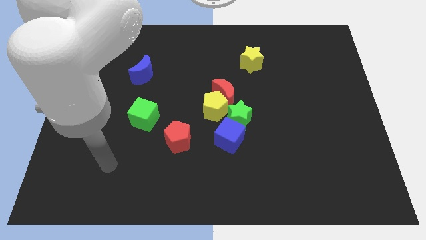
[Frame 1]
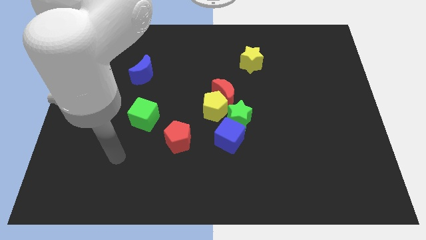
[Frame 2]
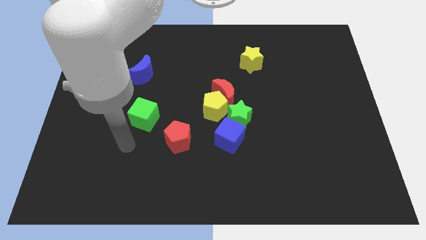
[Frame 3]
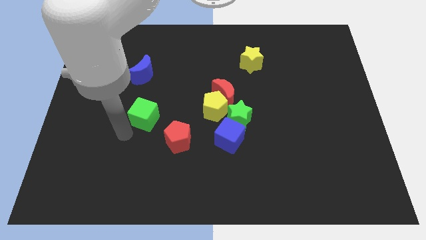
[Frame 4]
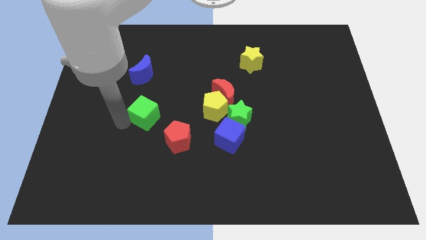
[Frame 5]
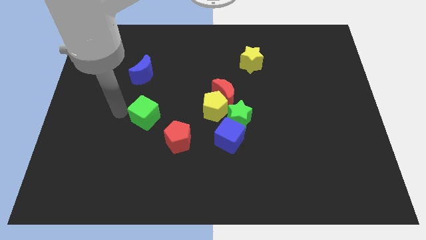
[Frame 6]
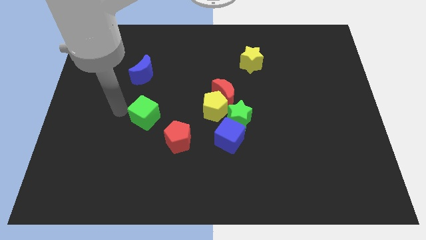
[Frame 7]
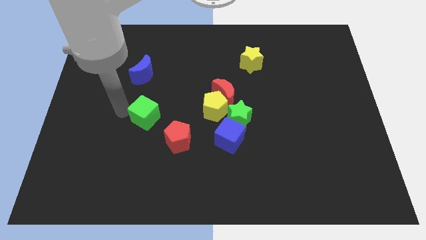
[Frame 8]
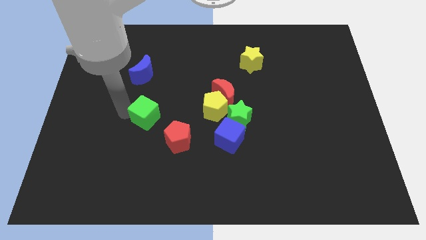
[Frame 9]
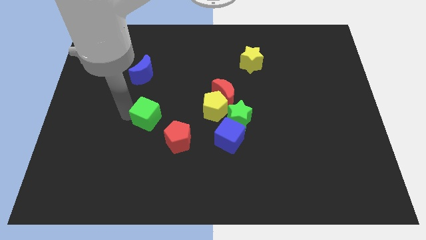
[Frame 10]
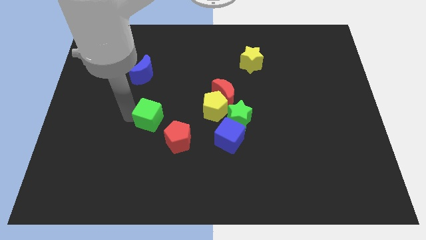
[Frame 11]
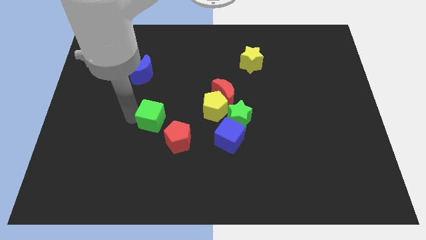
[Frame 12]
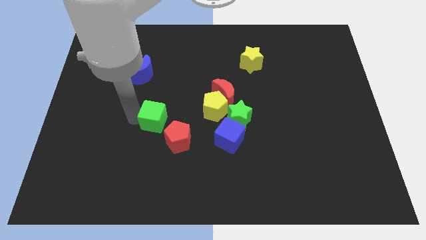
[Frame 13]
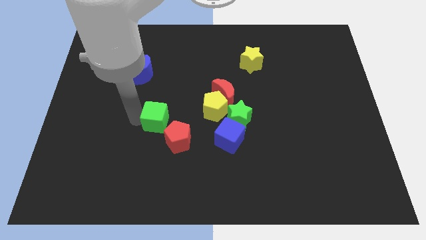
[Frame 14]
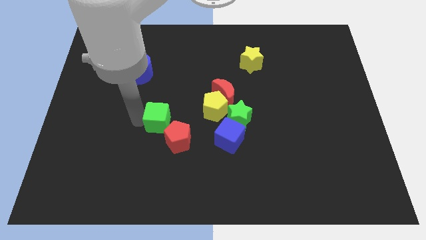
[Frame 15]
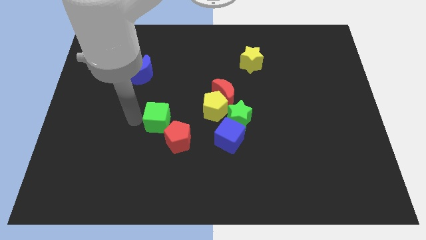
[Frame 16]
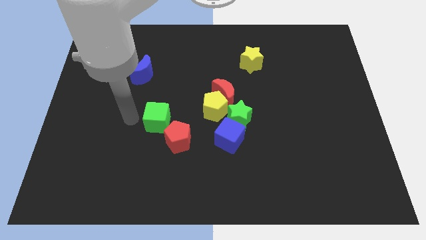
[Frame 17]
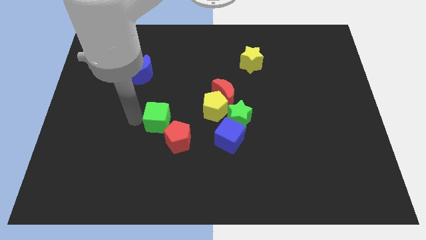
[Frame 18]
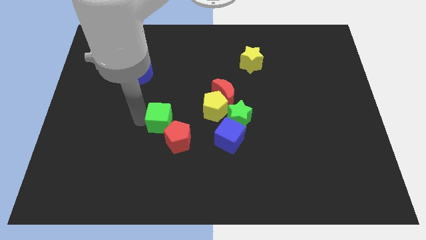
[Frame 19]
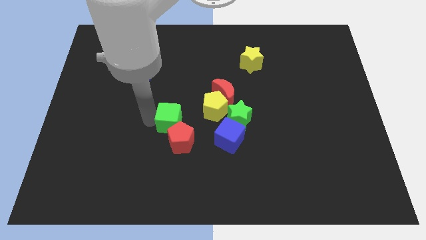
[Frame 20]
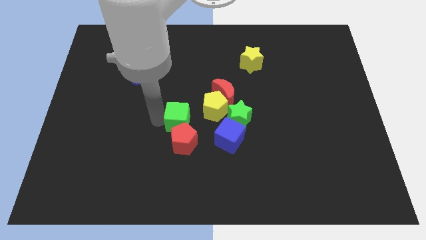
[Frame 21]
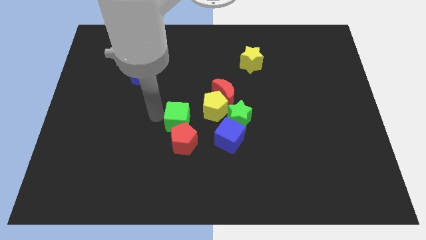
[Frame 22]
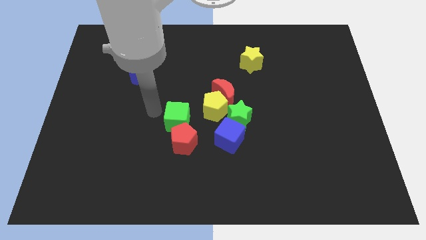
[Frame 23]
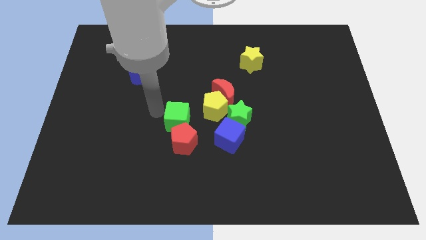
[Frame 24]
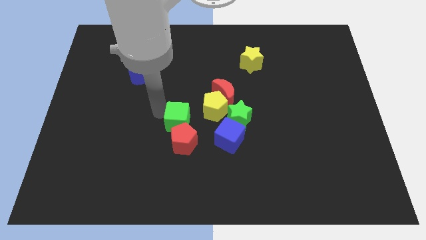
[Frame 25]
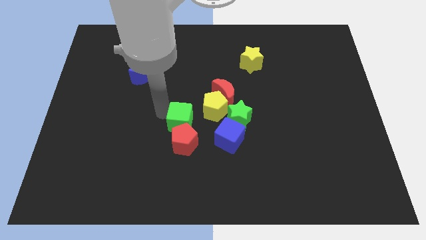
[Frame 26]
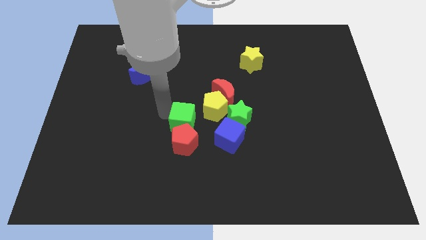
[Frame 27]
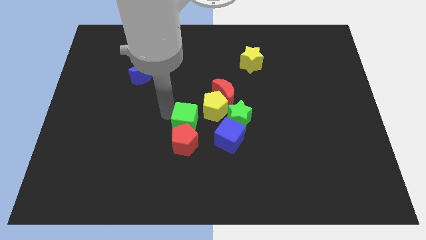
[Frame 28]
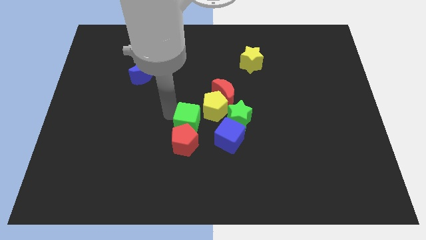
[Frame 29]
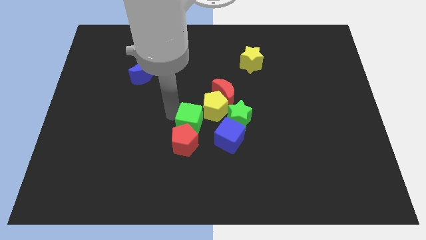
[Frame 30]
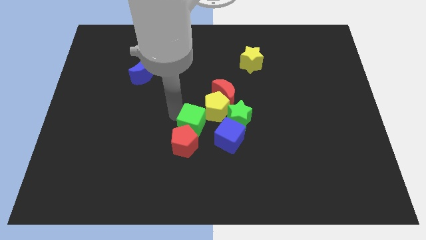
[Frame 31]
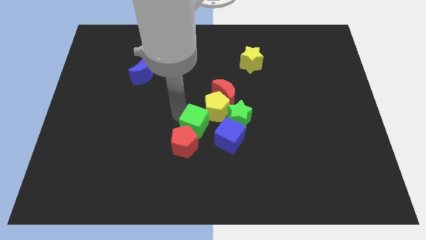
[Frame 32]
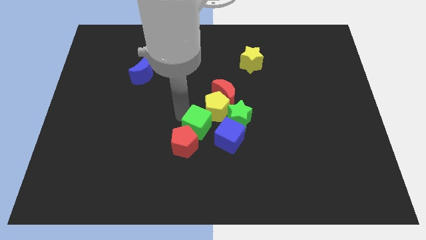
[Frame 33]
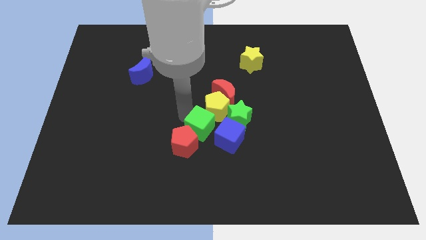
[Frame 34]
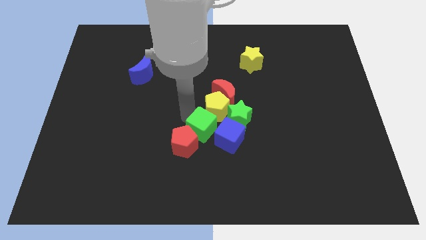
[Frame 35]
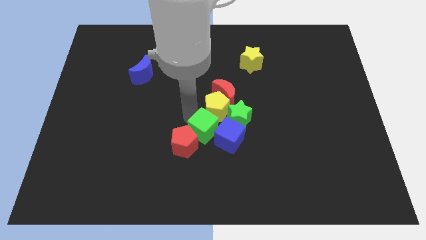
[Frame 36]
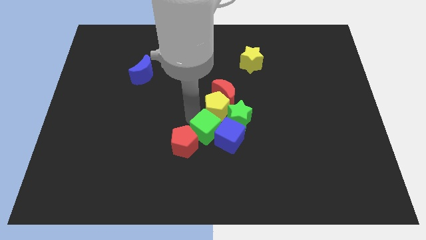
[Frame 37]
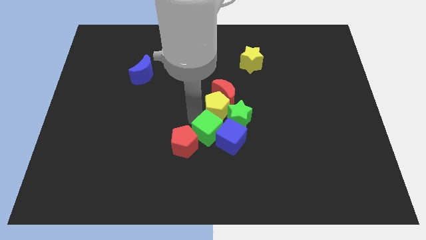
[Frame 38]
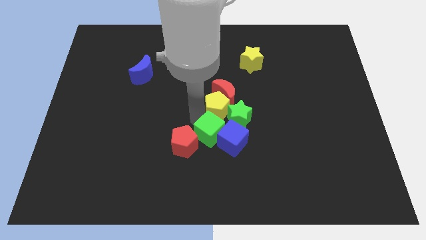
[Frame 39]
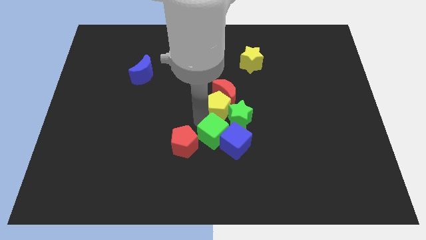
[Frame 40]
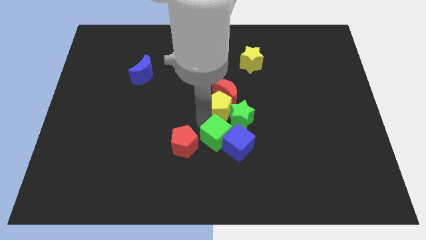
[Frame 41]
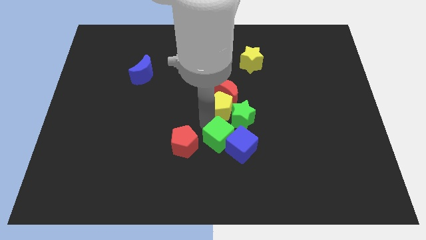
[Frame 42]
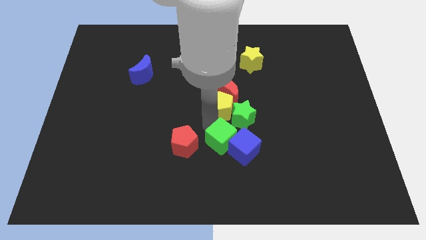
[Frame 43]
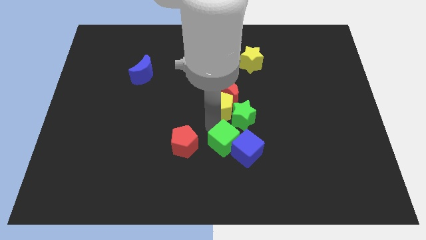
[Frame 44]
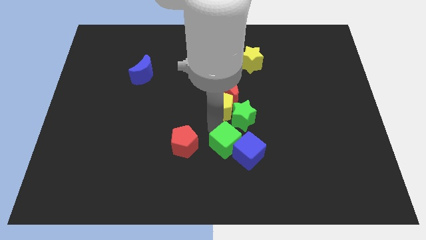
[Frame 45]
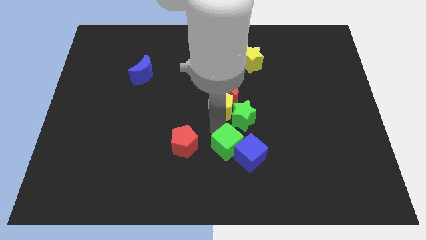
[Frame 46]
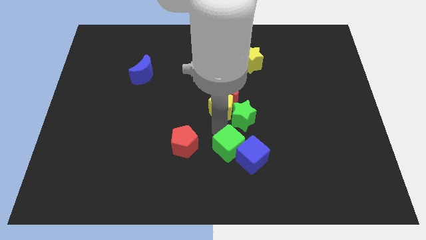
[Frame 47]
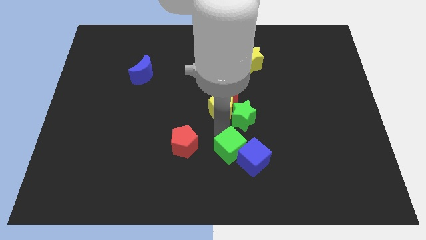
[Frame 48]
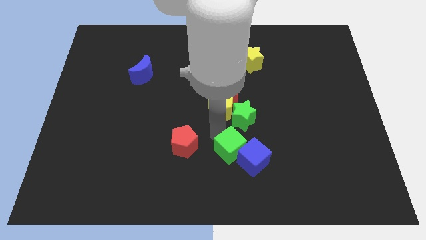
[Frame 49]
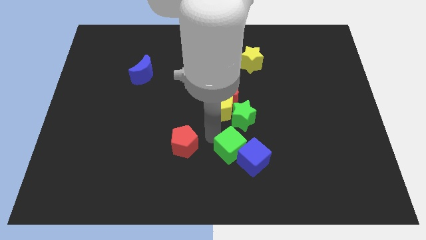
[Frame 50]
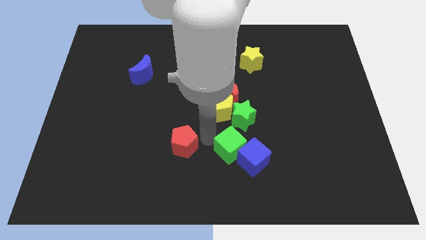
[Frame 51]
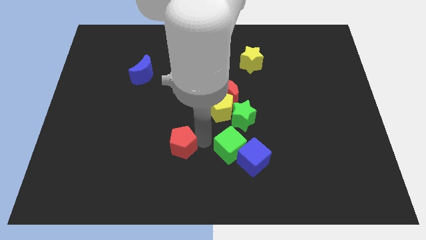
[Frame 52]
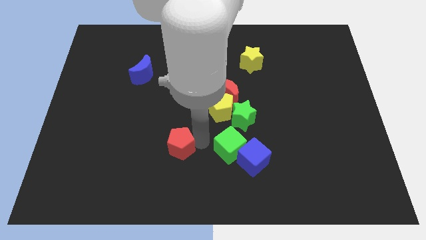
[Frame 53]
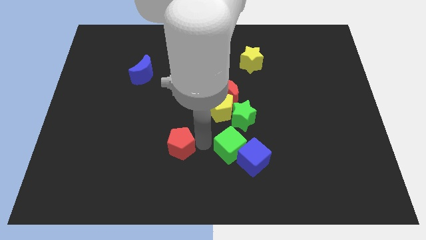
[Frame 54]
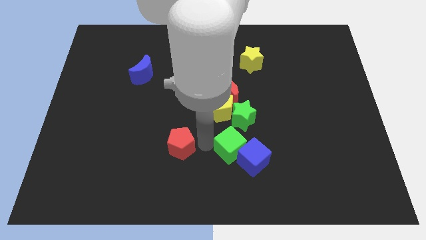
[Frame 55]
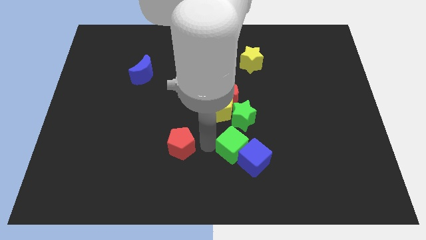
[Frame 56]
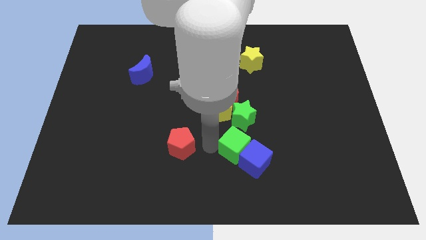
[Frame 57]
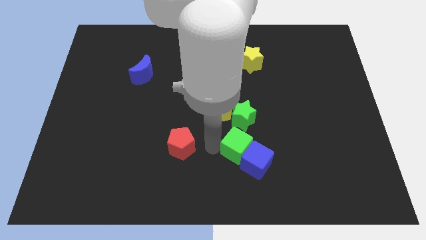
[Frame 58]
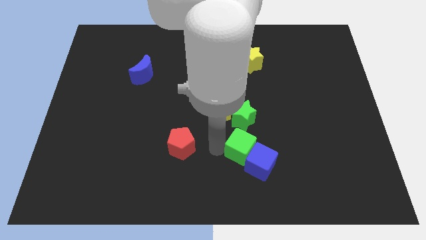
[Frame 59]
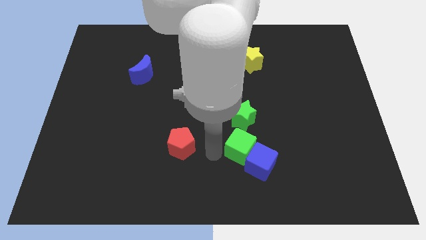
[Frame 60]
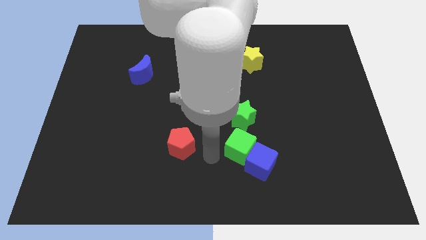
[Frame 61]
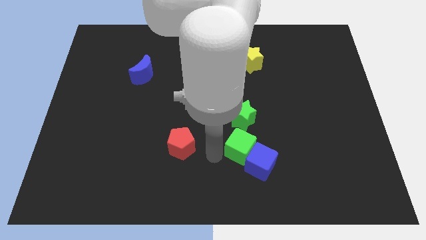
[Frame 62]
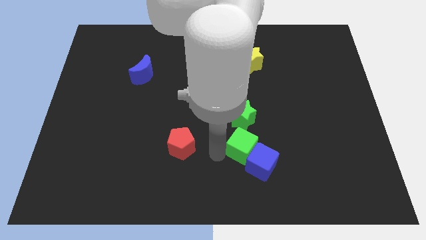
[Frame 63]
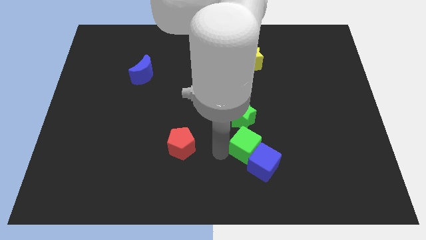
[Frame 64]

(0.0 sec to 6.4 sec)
move the green cube right

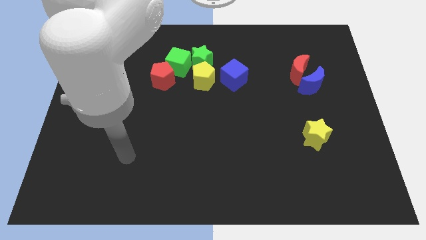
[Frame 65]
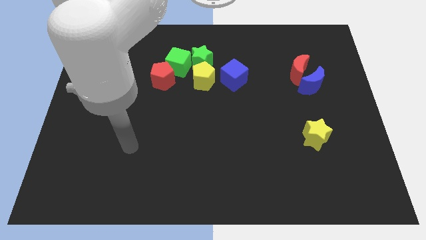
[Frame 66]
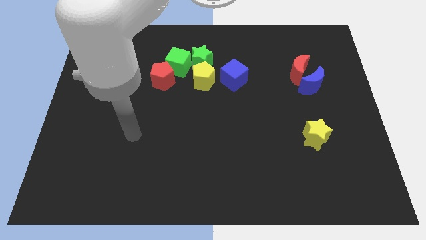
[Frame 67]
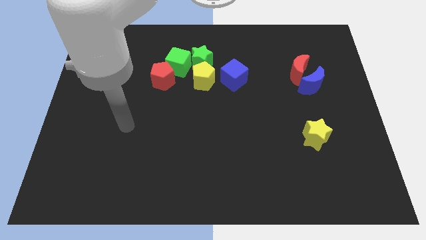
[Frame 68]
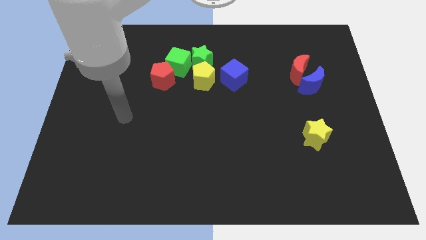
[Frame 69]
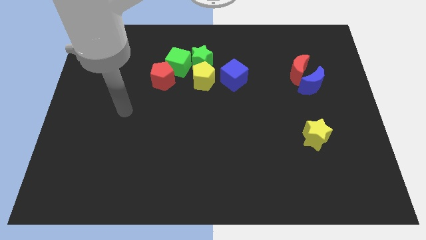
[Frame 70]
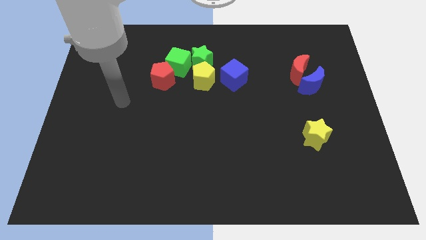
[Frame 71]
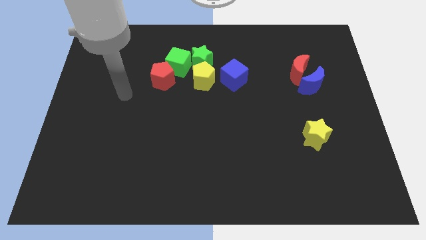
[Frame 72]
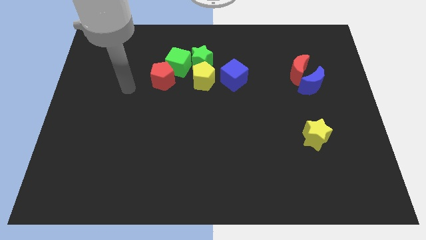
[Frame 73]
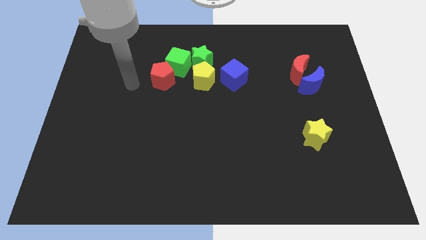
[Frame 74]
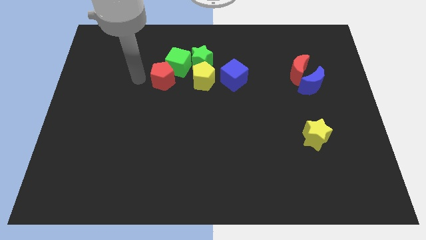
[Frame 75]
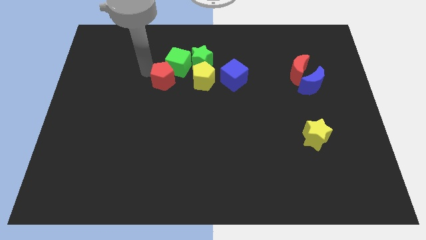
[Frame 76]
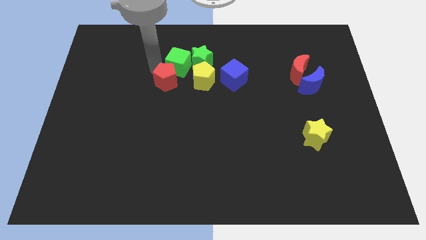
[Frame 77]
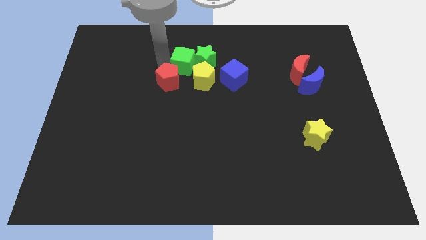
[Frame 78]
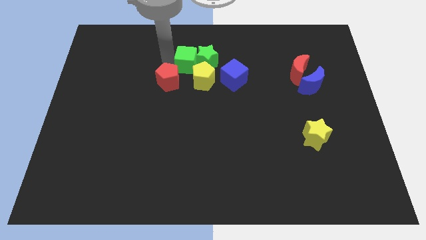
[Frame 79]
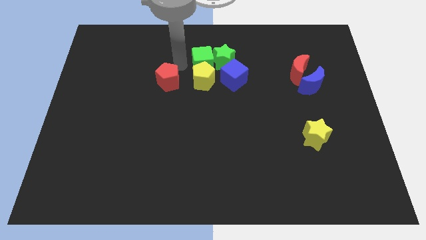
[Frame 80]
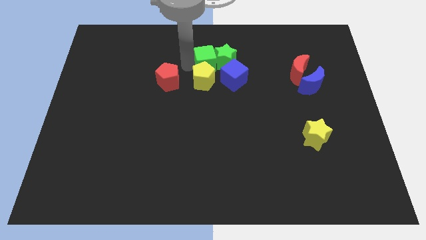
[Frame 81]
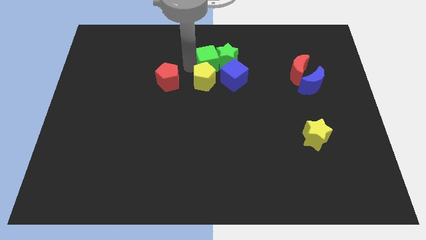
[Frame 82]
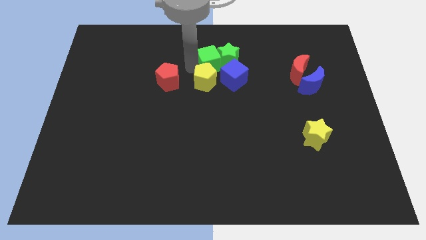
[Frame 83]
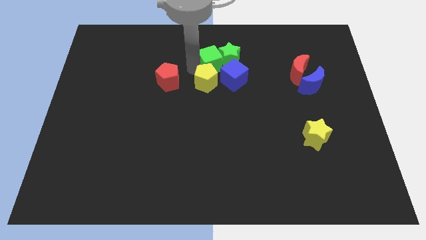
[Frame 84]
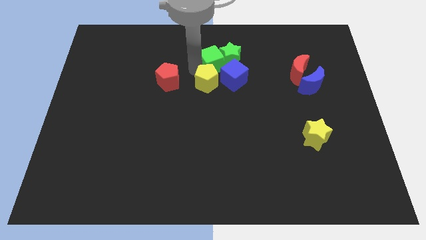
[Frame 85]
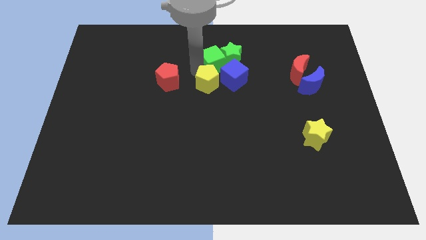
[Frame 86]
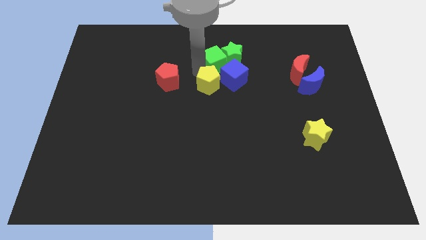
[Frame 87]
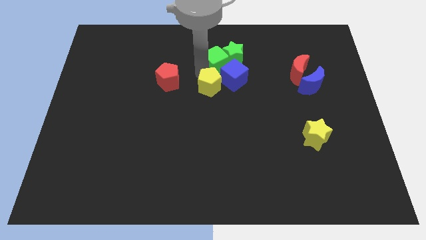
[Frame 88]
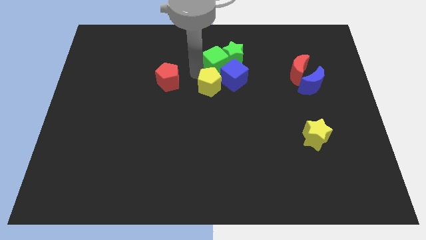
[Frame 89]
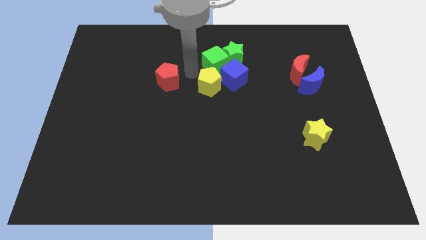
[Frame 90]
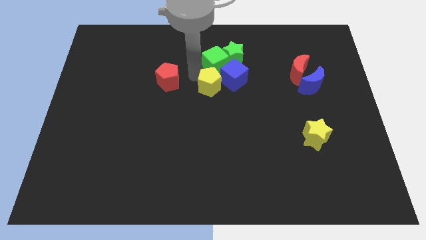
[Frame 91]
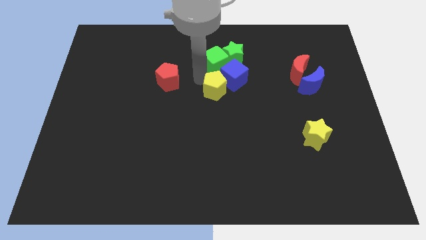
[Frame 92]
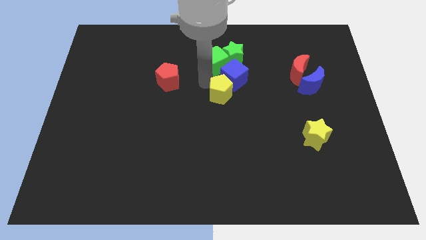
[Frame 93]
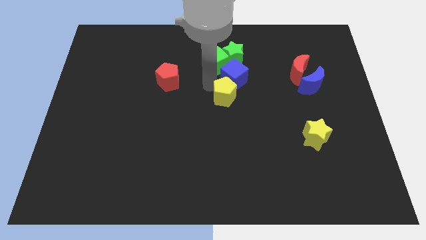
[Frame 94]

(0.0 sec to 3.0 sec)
move the yellow pentagon down and right diagonally a bit
